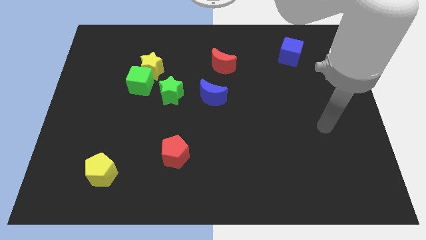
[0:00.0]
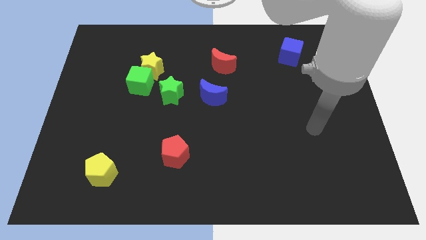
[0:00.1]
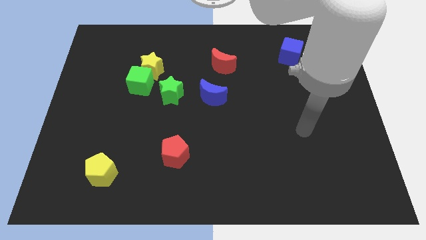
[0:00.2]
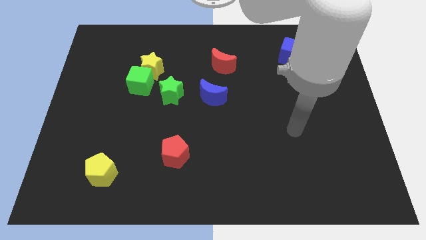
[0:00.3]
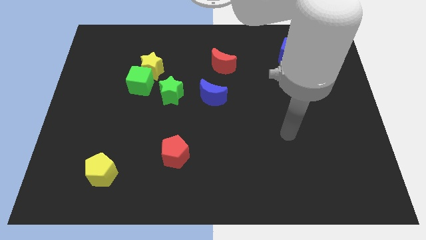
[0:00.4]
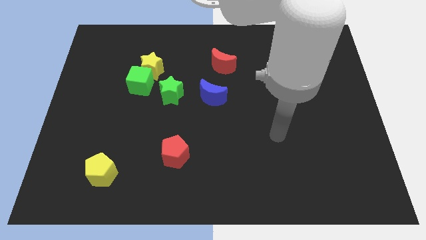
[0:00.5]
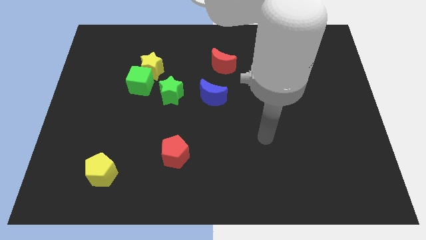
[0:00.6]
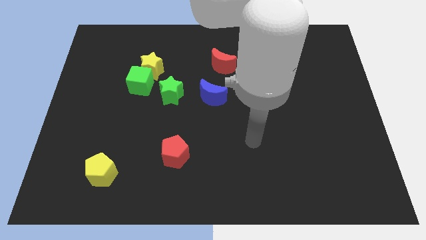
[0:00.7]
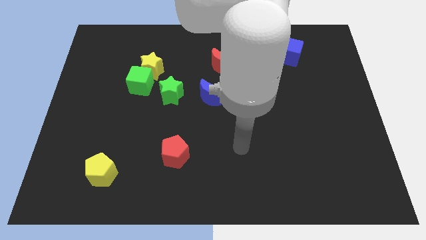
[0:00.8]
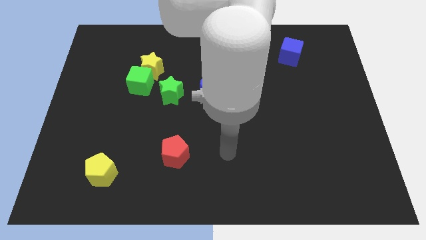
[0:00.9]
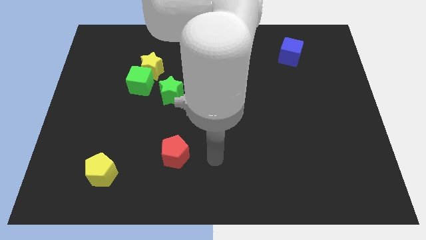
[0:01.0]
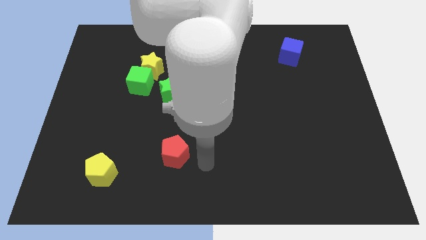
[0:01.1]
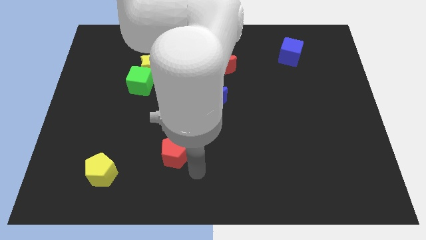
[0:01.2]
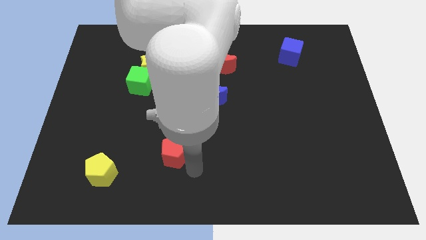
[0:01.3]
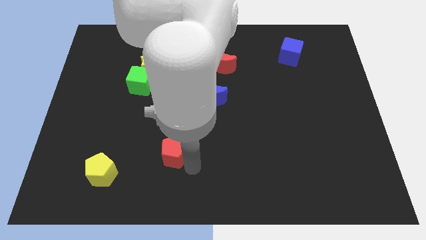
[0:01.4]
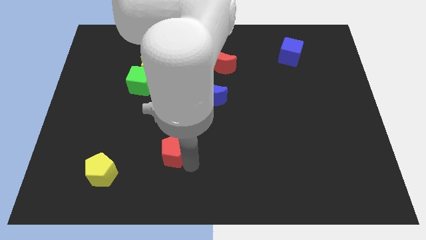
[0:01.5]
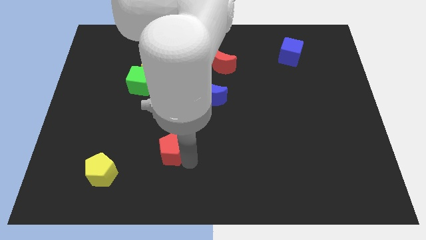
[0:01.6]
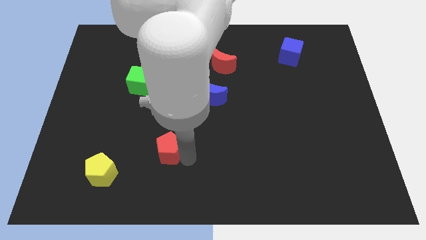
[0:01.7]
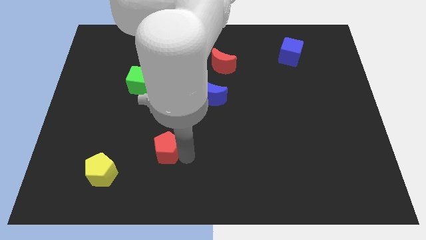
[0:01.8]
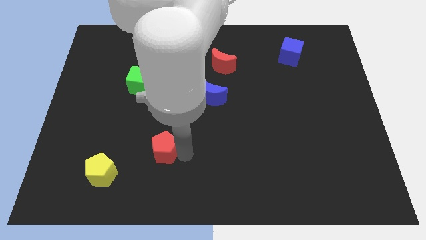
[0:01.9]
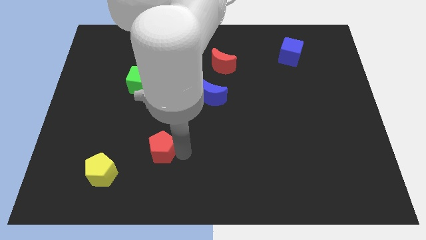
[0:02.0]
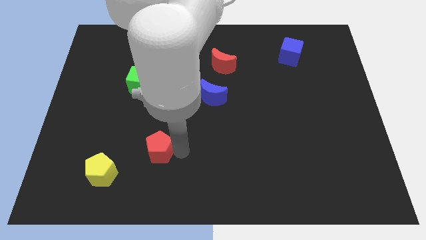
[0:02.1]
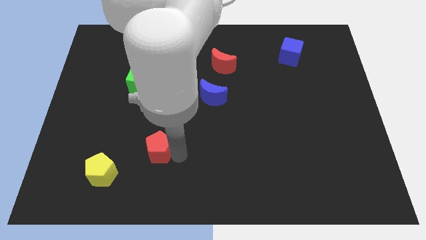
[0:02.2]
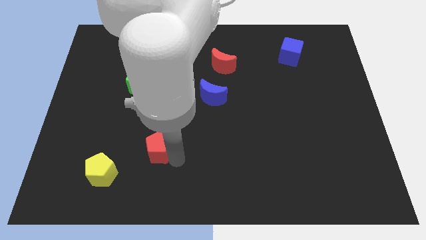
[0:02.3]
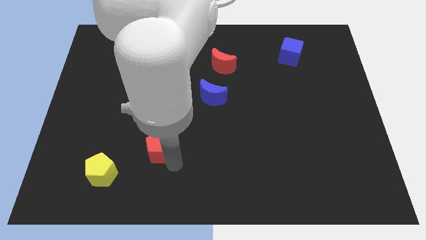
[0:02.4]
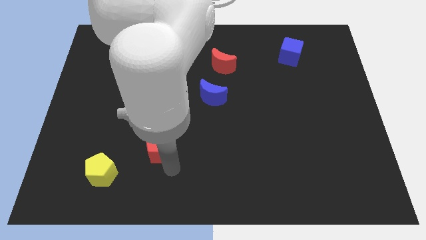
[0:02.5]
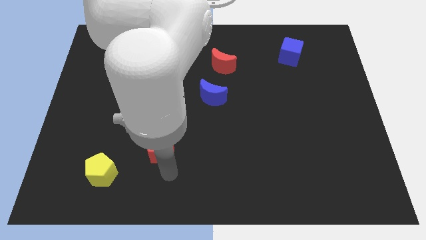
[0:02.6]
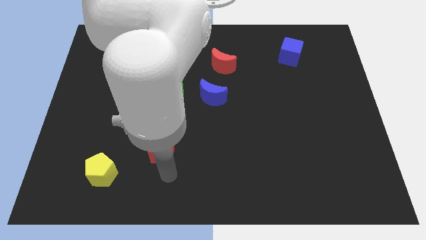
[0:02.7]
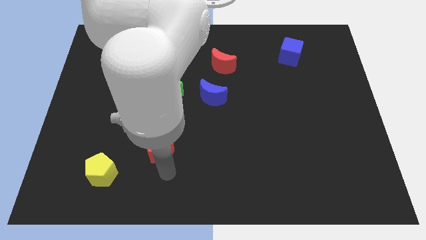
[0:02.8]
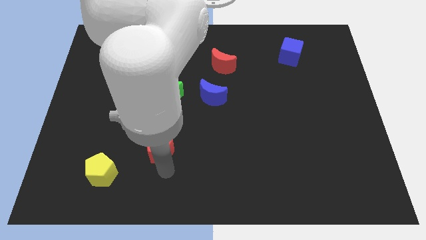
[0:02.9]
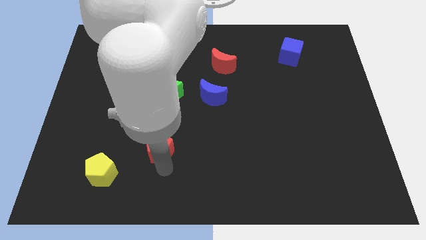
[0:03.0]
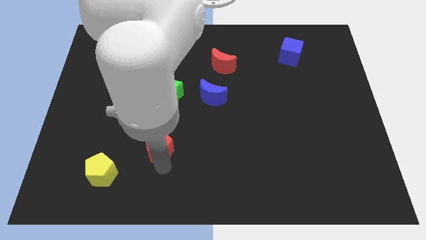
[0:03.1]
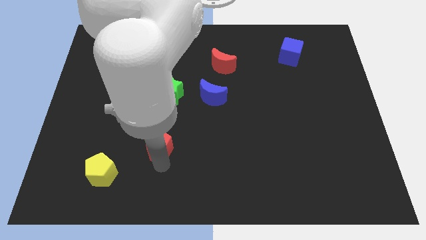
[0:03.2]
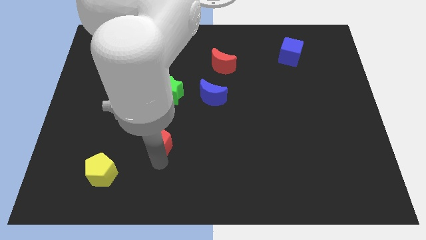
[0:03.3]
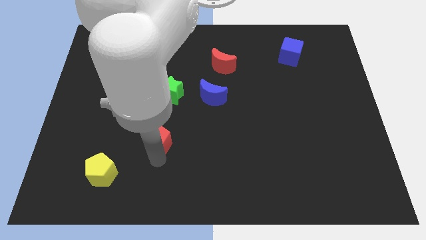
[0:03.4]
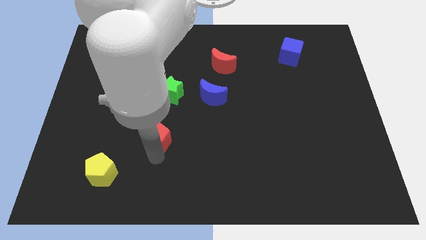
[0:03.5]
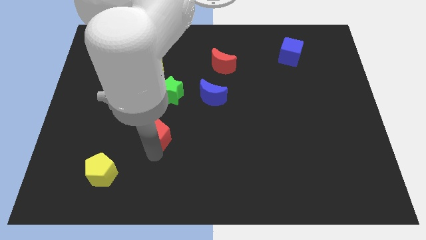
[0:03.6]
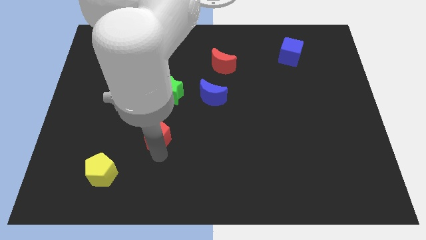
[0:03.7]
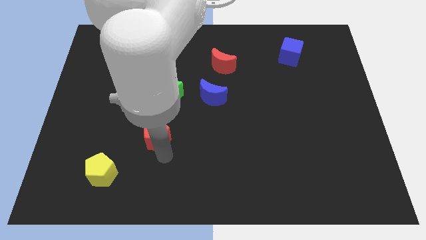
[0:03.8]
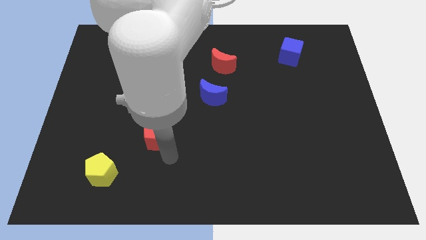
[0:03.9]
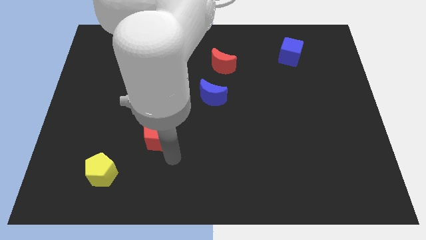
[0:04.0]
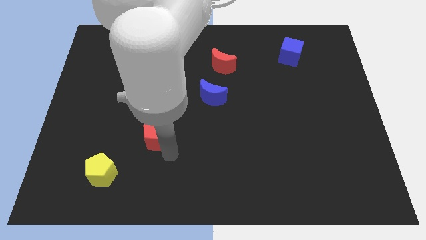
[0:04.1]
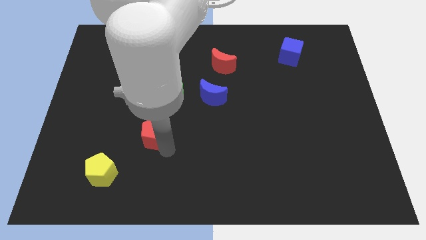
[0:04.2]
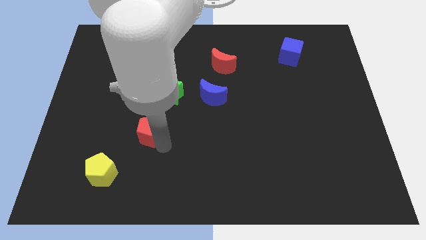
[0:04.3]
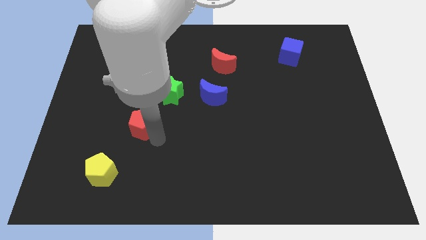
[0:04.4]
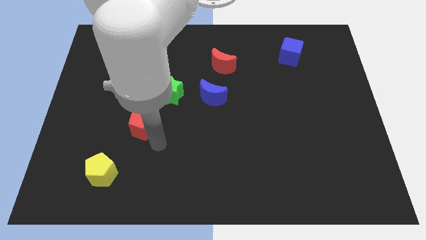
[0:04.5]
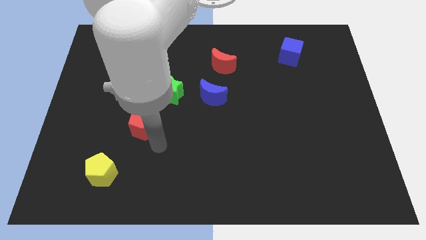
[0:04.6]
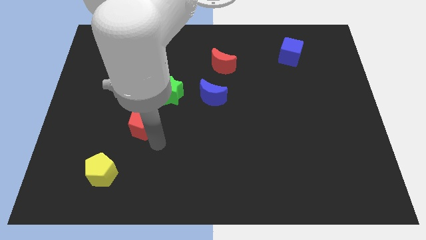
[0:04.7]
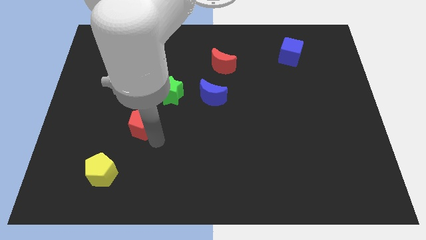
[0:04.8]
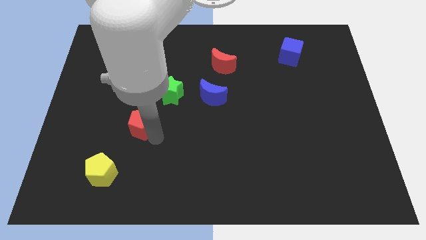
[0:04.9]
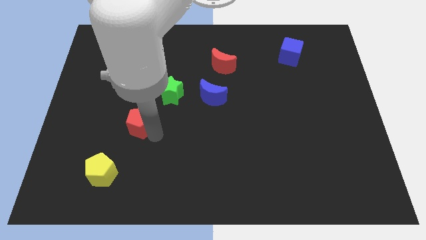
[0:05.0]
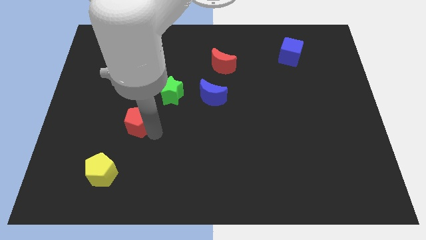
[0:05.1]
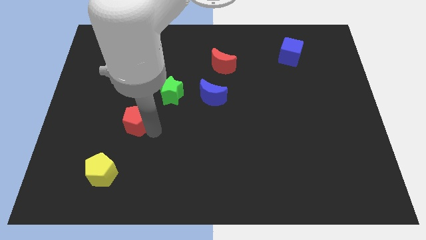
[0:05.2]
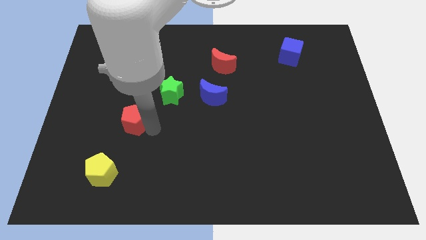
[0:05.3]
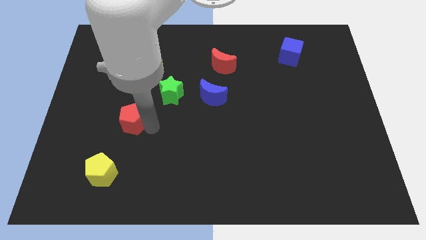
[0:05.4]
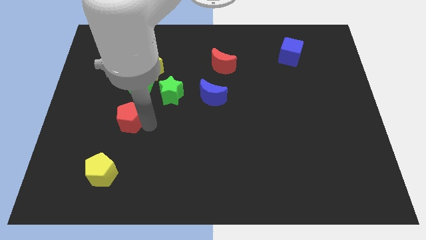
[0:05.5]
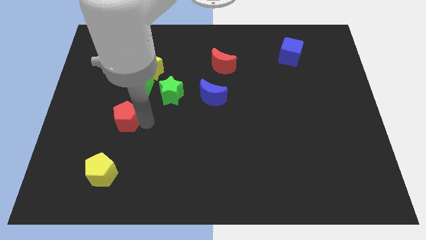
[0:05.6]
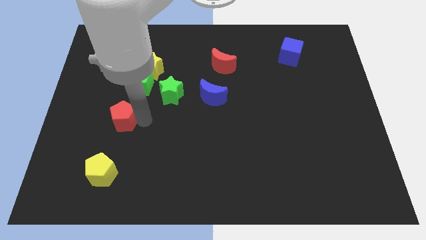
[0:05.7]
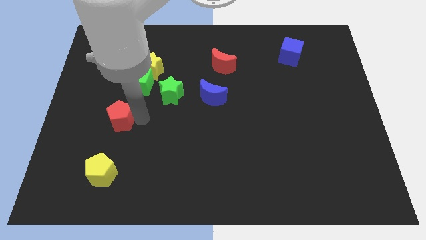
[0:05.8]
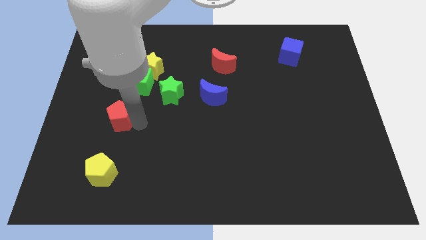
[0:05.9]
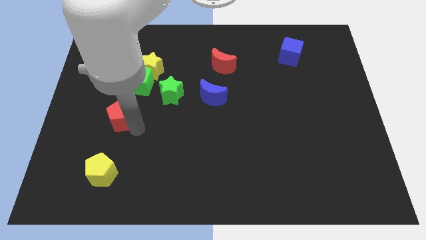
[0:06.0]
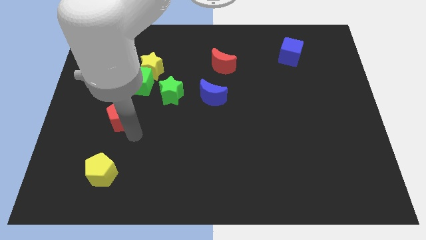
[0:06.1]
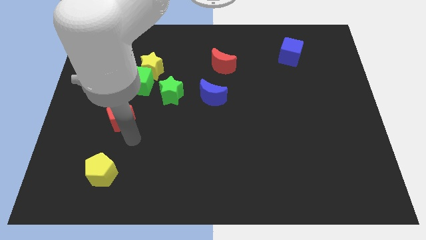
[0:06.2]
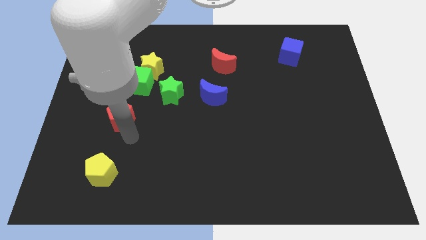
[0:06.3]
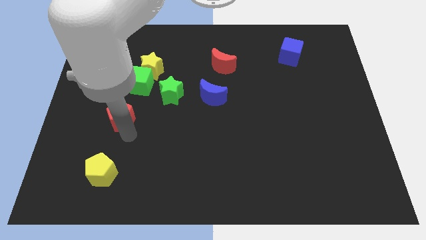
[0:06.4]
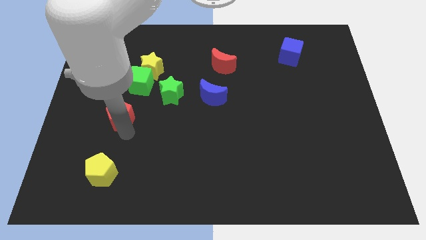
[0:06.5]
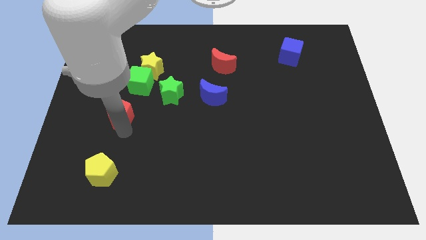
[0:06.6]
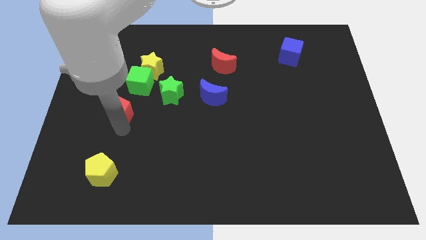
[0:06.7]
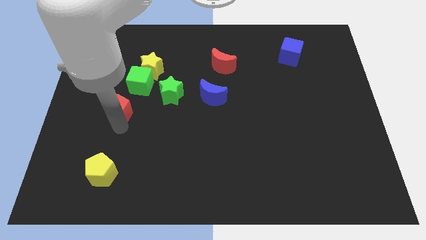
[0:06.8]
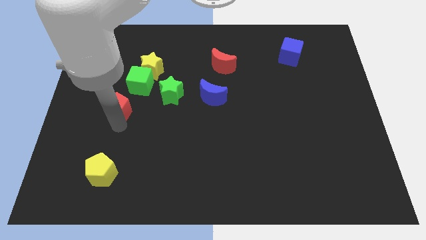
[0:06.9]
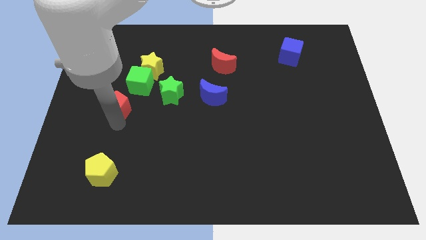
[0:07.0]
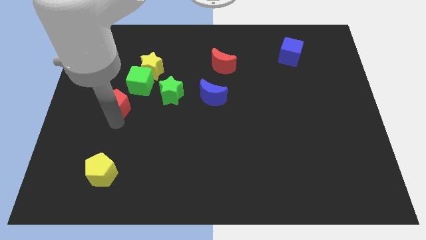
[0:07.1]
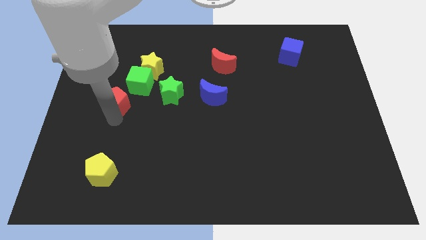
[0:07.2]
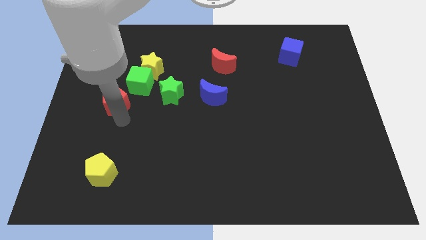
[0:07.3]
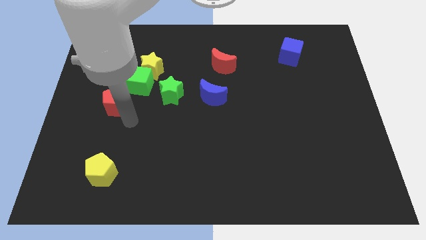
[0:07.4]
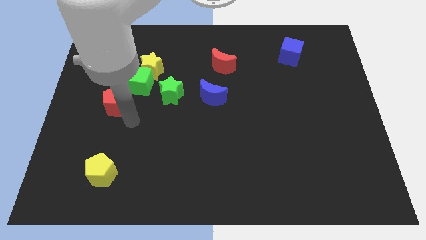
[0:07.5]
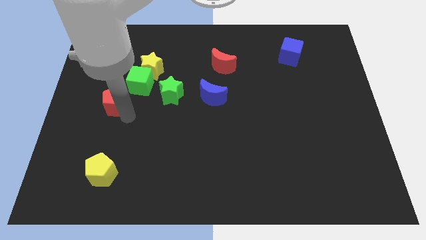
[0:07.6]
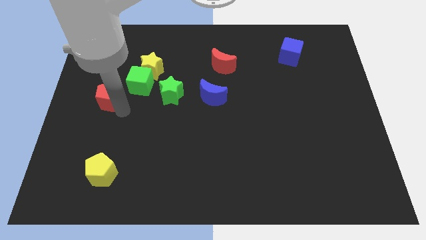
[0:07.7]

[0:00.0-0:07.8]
slide the red pentagon just left of the green cube
